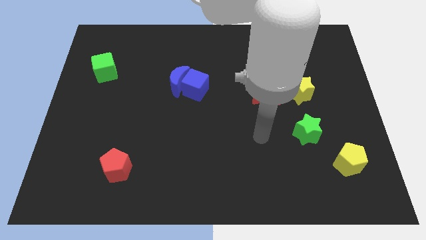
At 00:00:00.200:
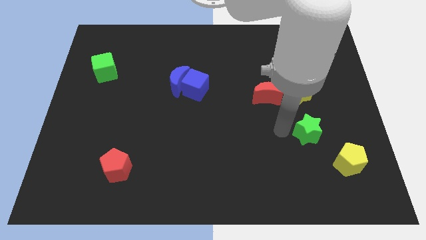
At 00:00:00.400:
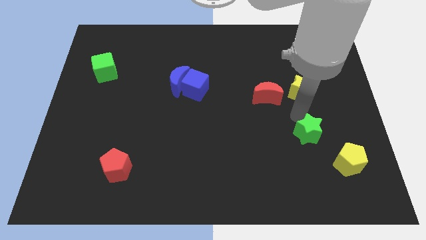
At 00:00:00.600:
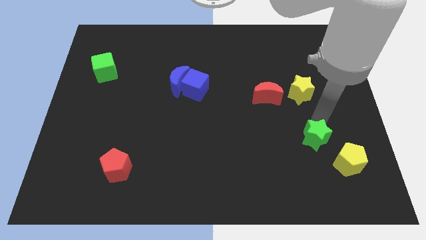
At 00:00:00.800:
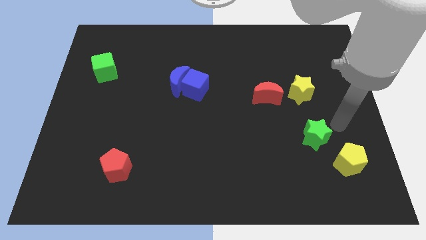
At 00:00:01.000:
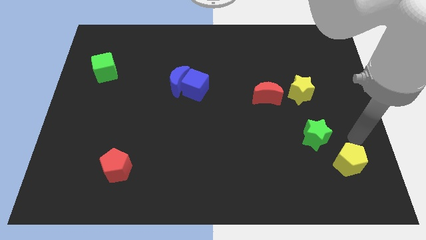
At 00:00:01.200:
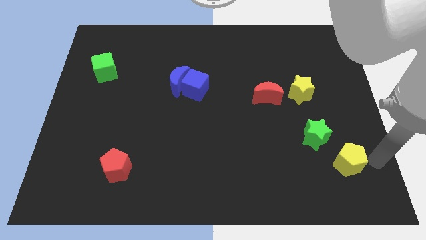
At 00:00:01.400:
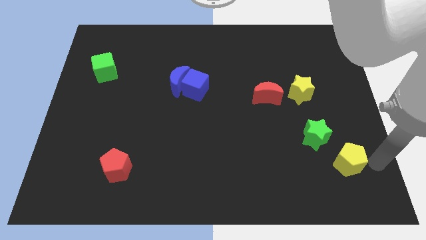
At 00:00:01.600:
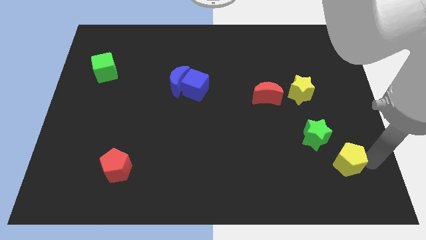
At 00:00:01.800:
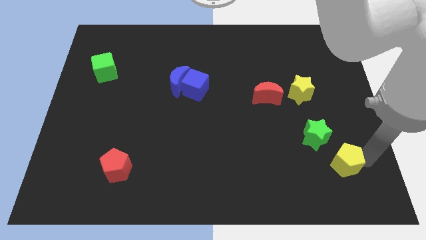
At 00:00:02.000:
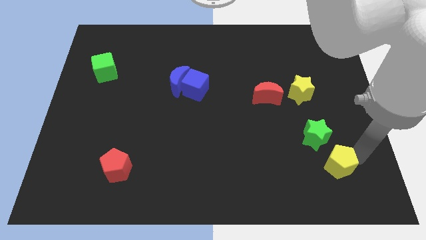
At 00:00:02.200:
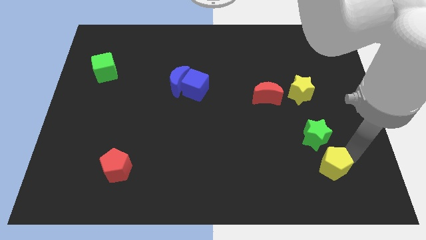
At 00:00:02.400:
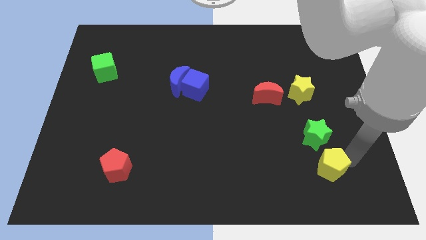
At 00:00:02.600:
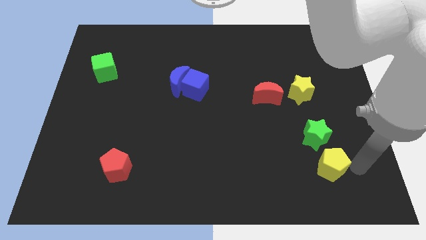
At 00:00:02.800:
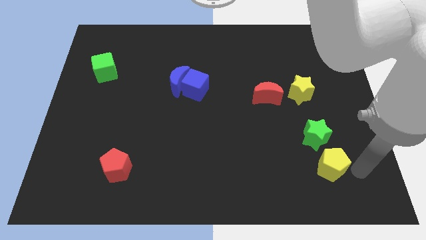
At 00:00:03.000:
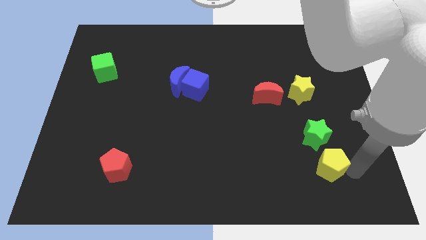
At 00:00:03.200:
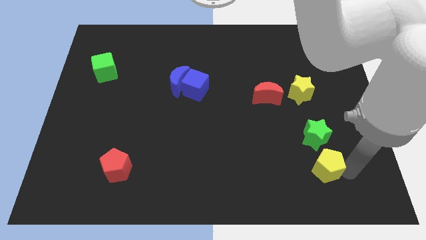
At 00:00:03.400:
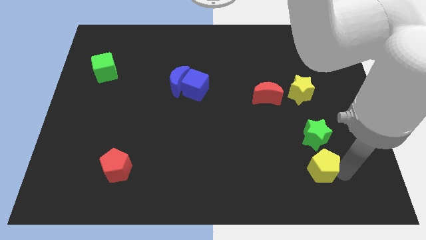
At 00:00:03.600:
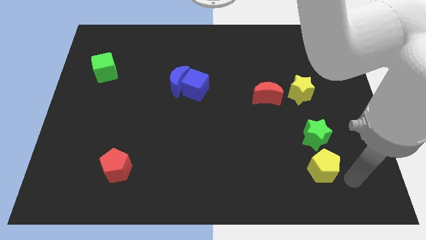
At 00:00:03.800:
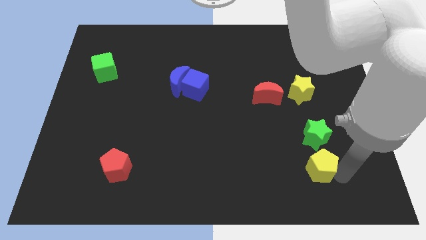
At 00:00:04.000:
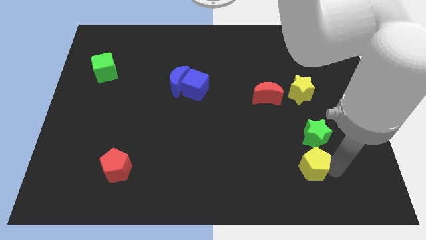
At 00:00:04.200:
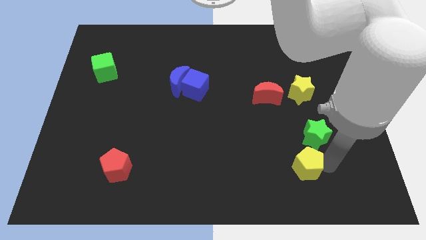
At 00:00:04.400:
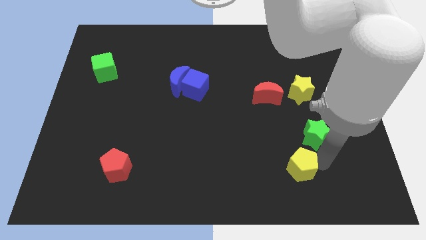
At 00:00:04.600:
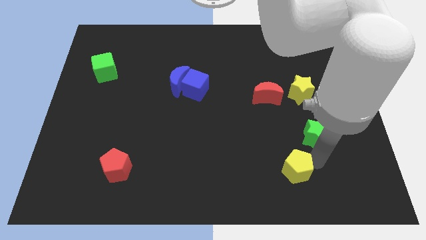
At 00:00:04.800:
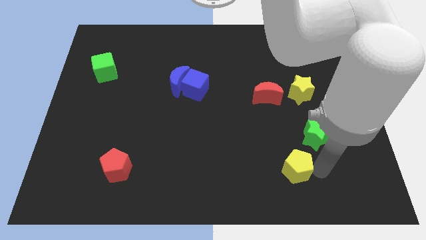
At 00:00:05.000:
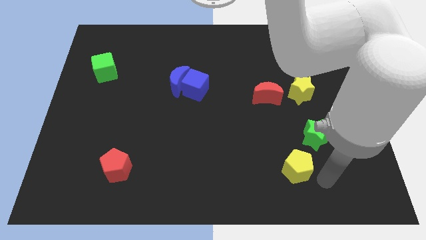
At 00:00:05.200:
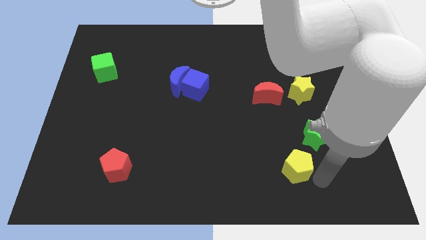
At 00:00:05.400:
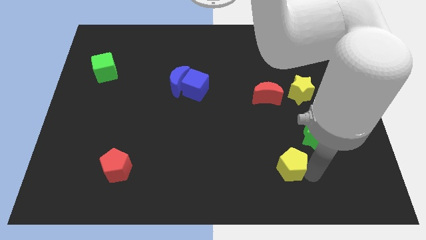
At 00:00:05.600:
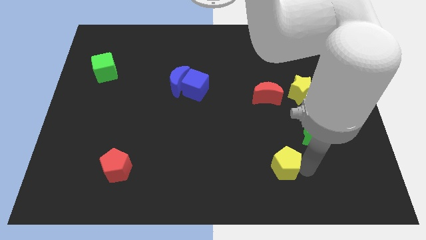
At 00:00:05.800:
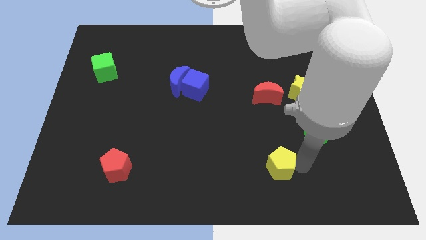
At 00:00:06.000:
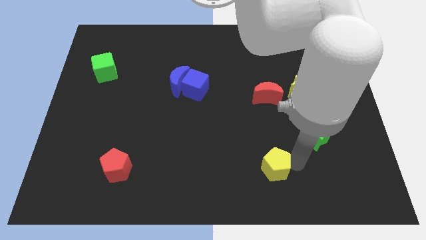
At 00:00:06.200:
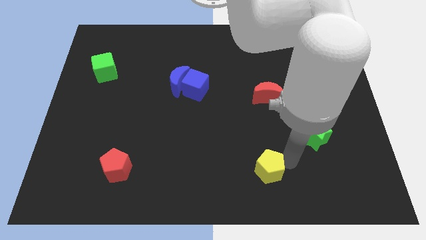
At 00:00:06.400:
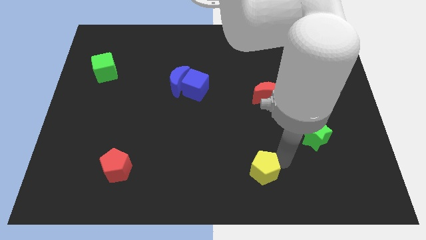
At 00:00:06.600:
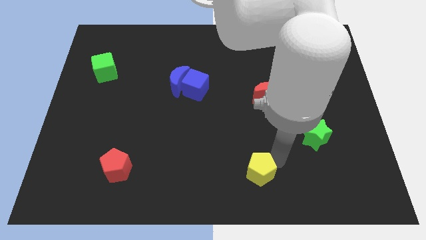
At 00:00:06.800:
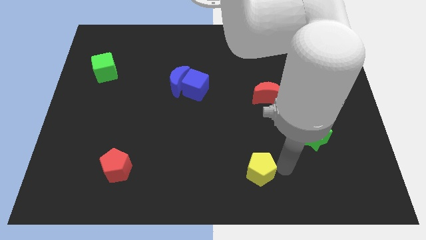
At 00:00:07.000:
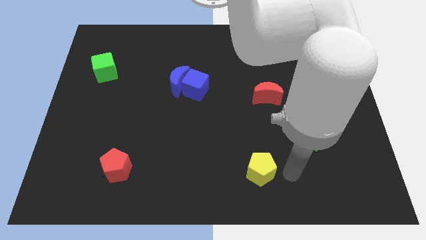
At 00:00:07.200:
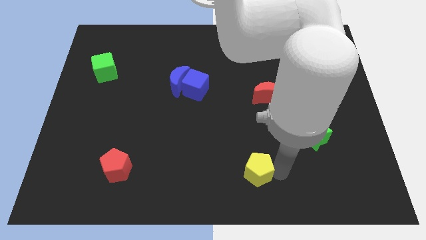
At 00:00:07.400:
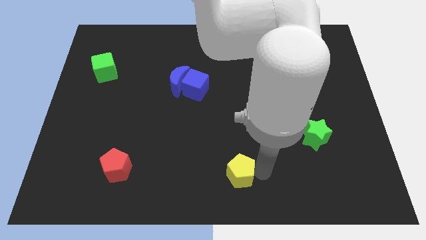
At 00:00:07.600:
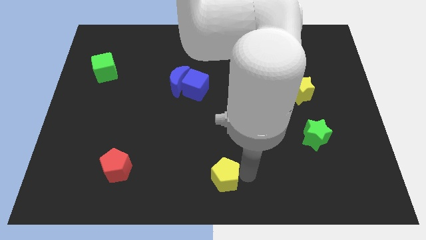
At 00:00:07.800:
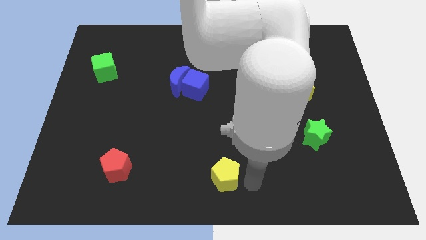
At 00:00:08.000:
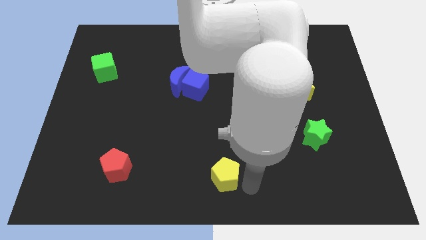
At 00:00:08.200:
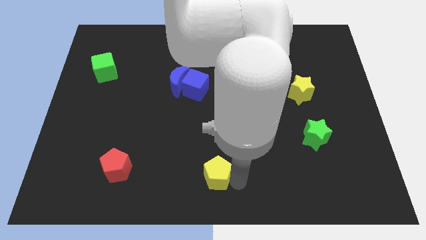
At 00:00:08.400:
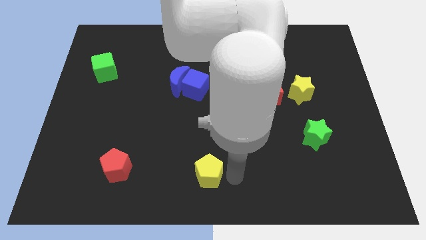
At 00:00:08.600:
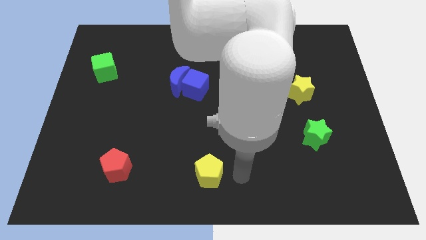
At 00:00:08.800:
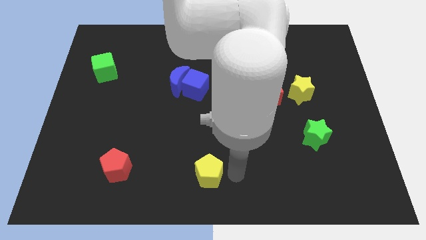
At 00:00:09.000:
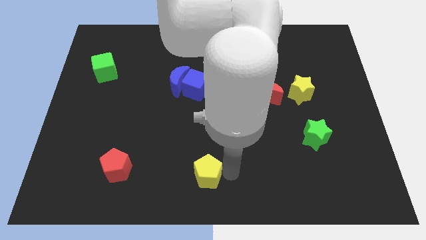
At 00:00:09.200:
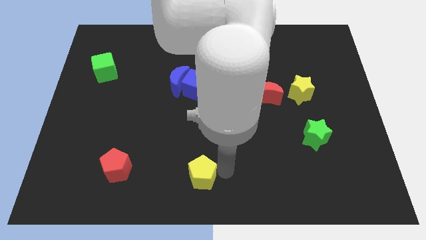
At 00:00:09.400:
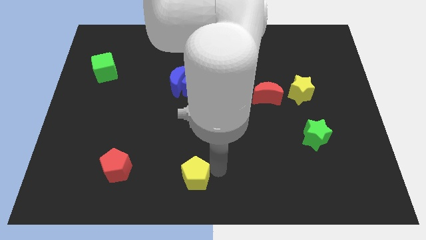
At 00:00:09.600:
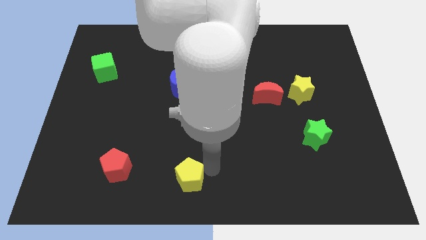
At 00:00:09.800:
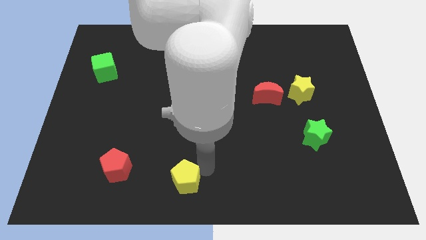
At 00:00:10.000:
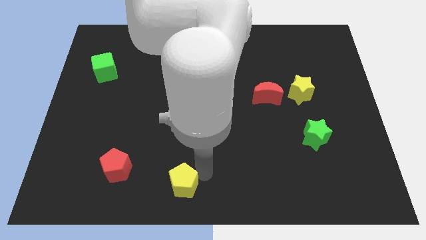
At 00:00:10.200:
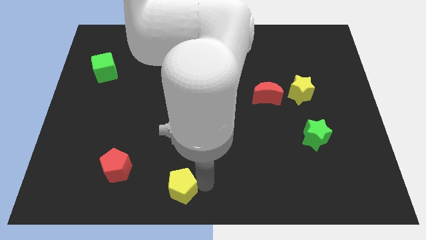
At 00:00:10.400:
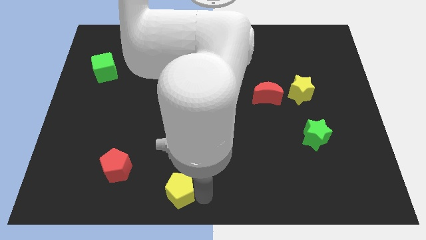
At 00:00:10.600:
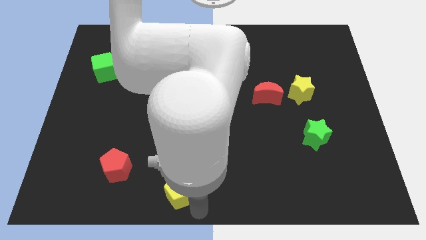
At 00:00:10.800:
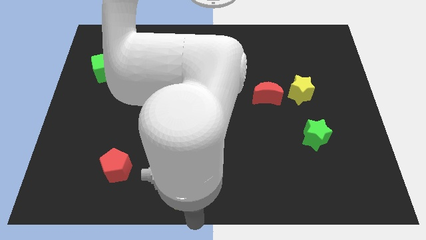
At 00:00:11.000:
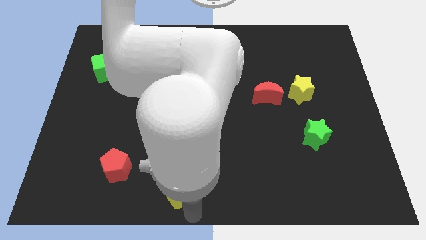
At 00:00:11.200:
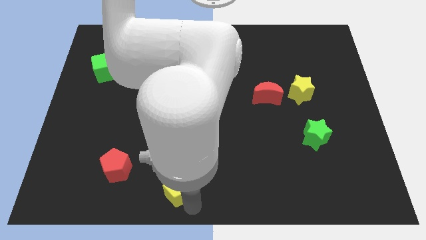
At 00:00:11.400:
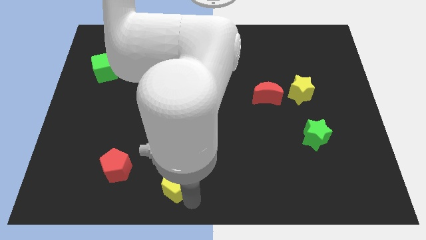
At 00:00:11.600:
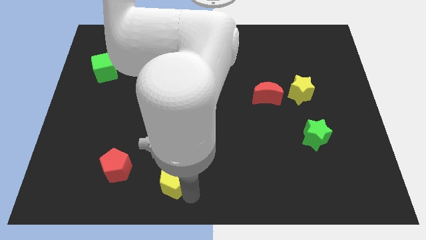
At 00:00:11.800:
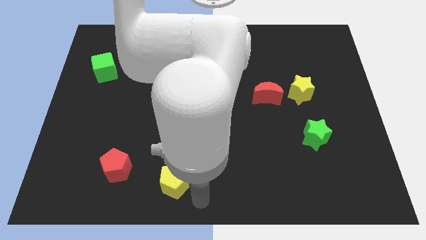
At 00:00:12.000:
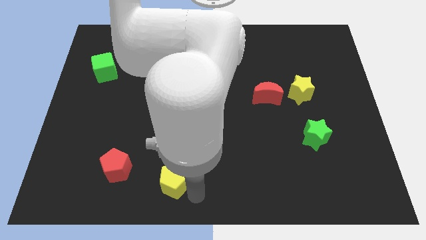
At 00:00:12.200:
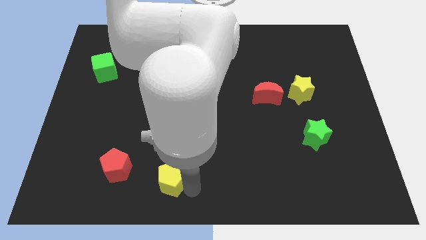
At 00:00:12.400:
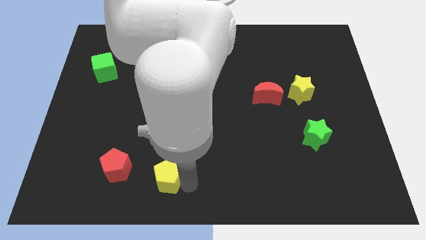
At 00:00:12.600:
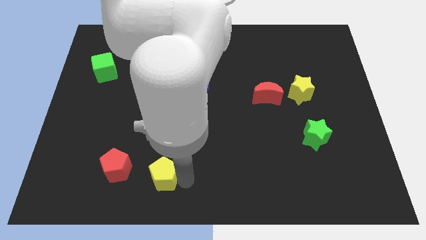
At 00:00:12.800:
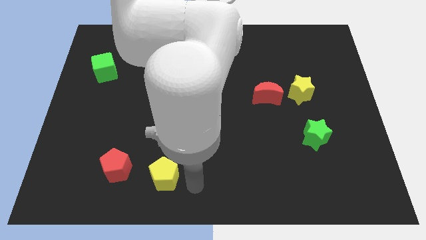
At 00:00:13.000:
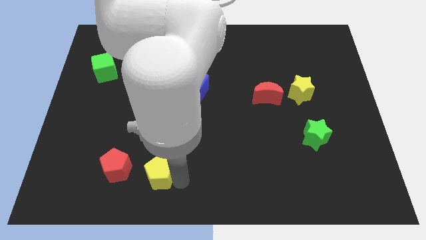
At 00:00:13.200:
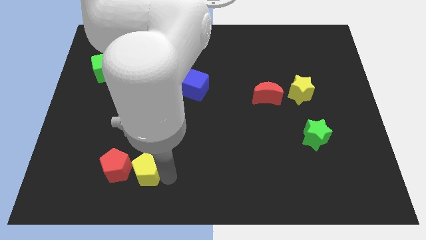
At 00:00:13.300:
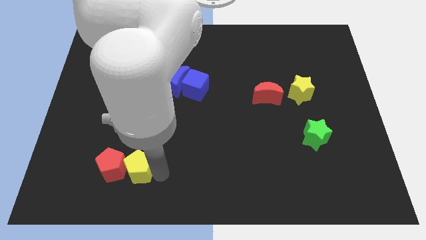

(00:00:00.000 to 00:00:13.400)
put the yellow pentagon to the red pentagon

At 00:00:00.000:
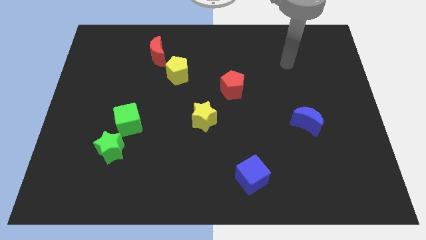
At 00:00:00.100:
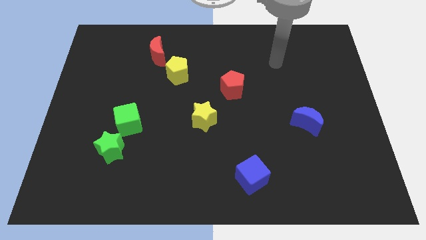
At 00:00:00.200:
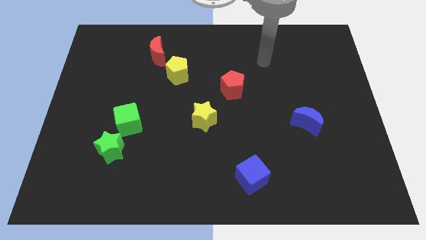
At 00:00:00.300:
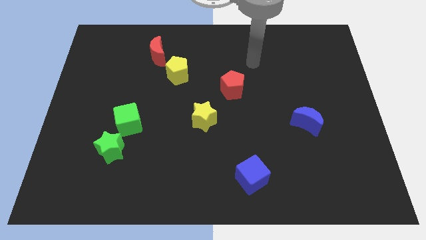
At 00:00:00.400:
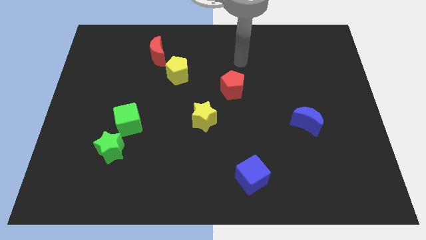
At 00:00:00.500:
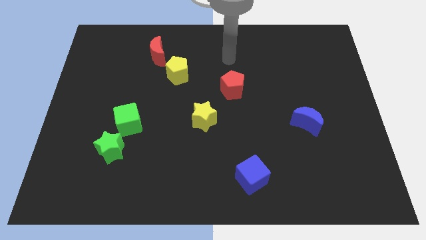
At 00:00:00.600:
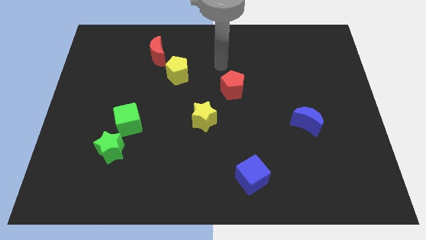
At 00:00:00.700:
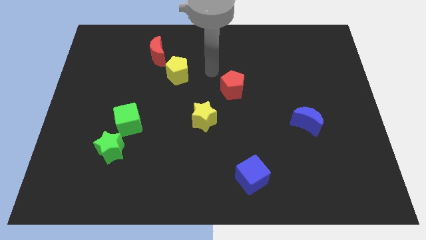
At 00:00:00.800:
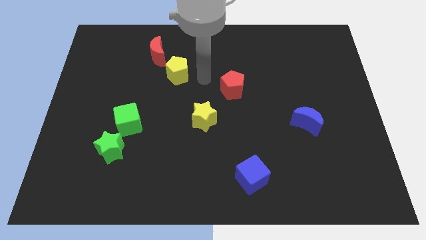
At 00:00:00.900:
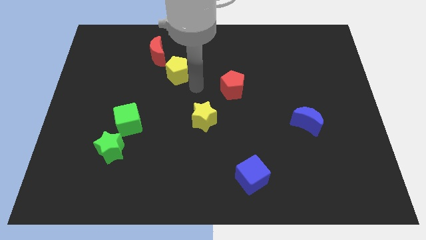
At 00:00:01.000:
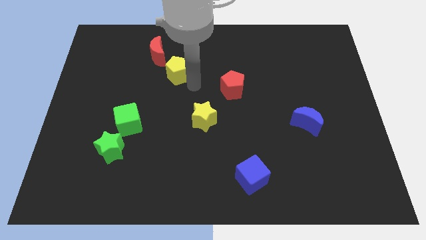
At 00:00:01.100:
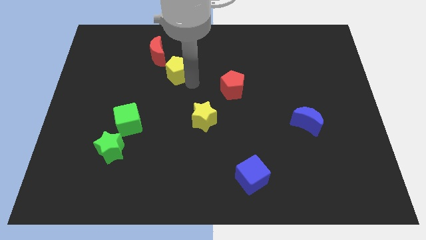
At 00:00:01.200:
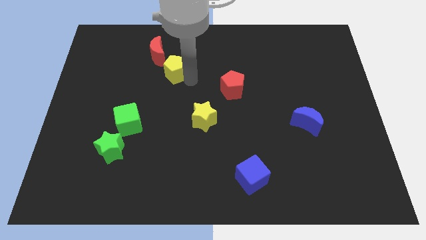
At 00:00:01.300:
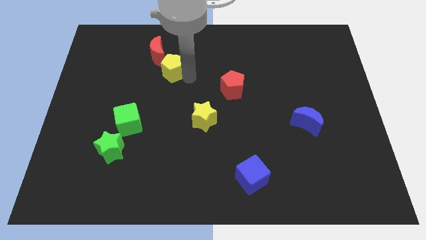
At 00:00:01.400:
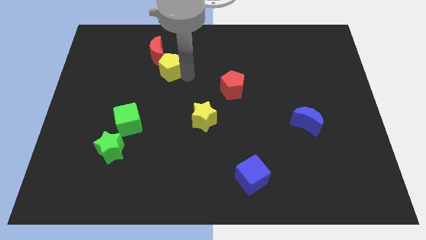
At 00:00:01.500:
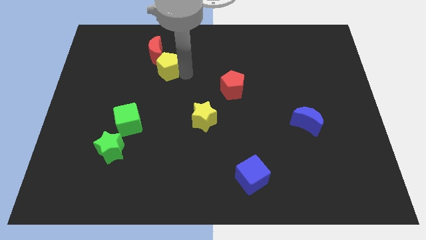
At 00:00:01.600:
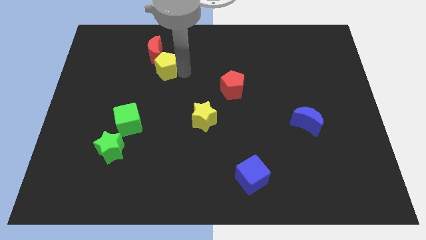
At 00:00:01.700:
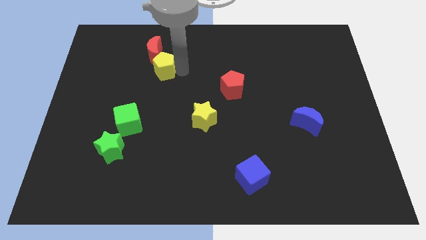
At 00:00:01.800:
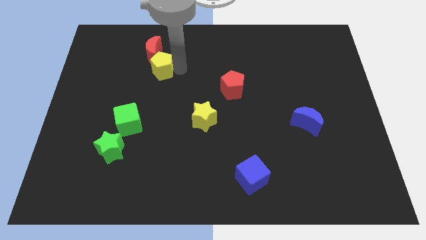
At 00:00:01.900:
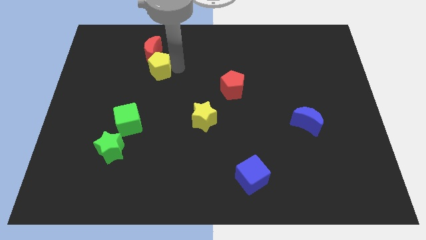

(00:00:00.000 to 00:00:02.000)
move the yellow pentagon to the red moon
